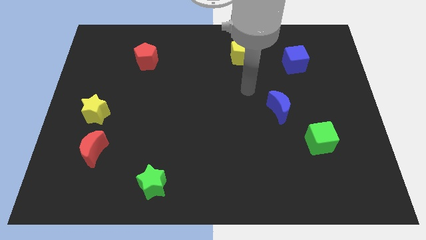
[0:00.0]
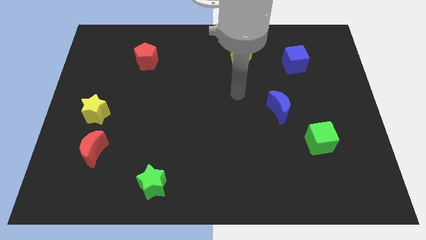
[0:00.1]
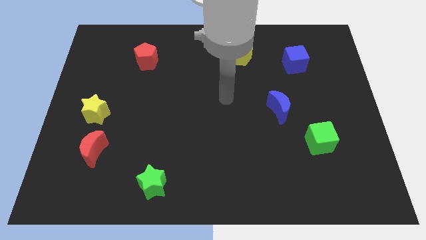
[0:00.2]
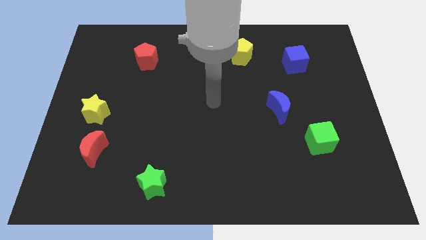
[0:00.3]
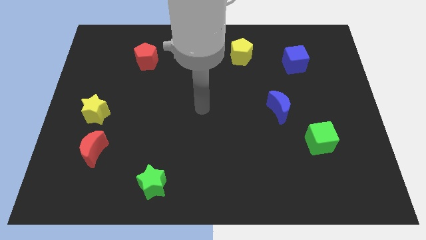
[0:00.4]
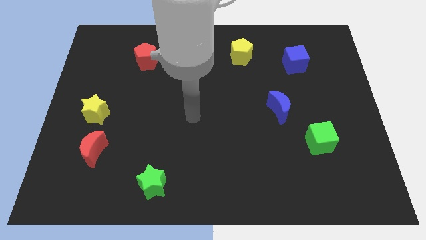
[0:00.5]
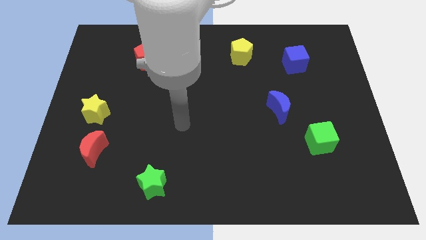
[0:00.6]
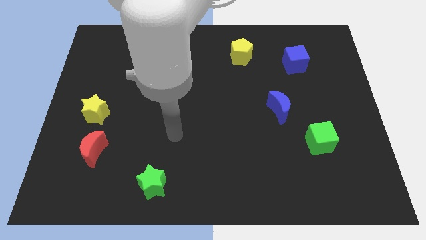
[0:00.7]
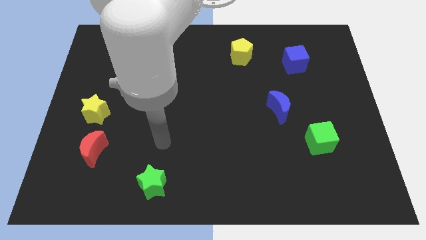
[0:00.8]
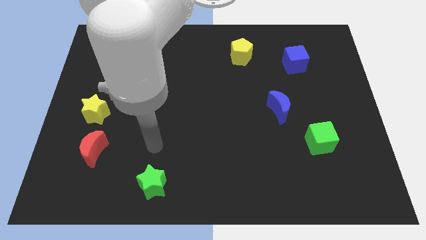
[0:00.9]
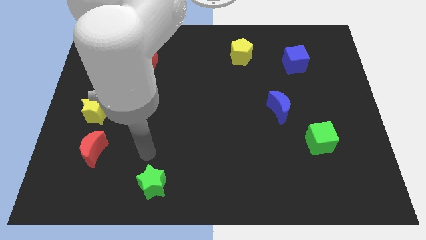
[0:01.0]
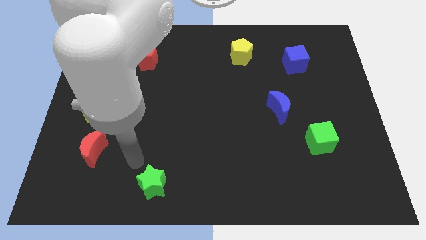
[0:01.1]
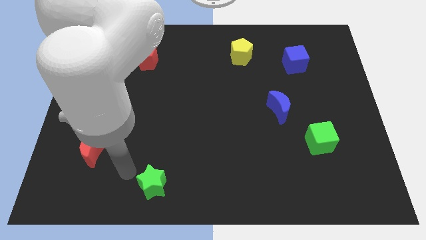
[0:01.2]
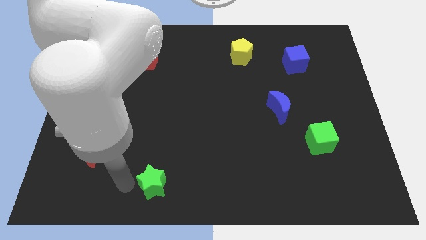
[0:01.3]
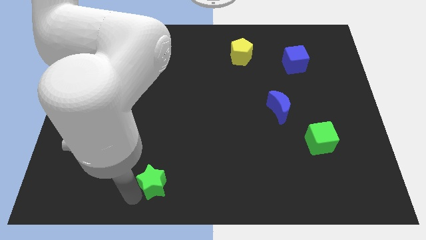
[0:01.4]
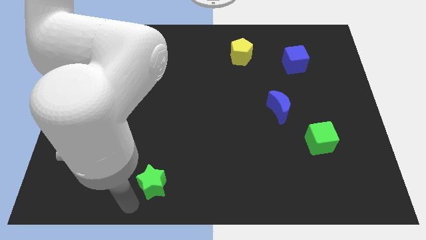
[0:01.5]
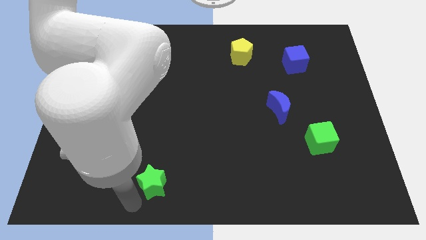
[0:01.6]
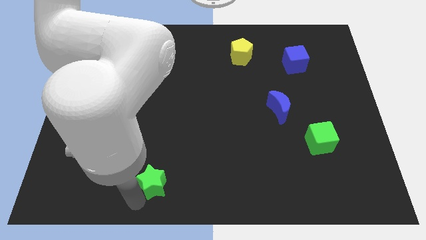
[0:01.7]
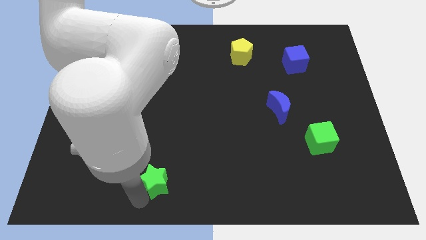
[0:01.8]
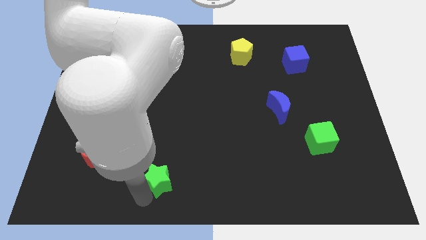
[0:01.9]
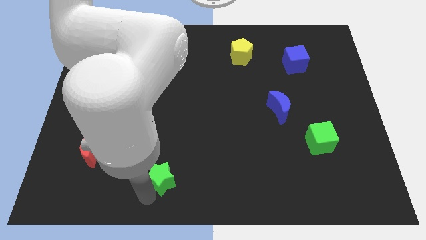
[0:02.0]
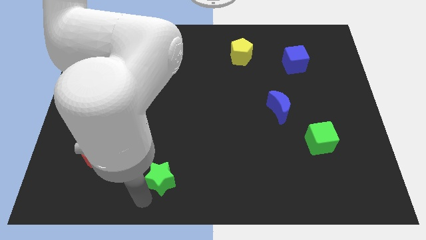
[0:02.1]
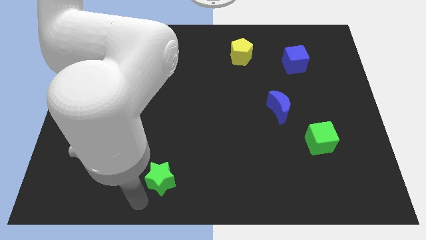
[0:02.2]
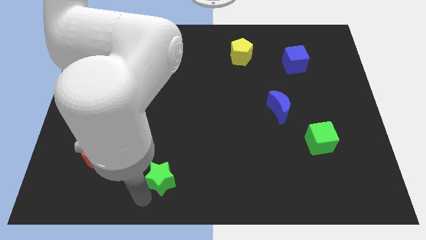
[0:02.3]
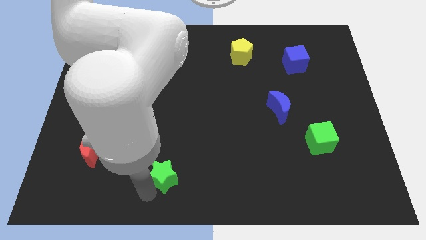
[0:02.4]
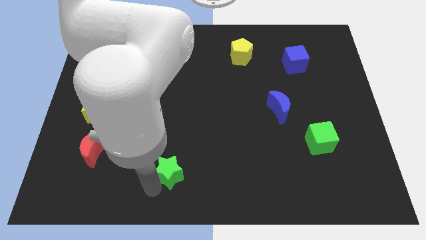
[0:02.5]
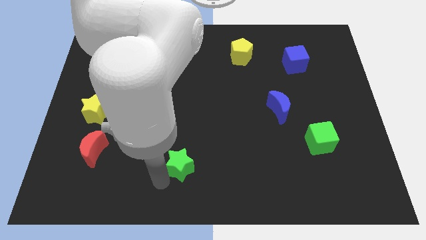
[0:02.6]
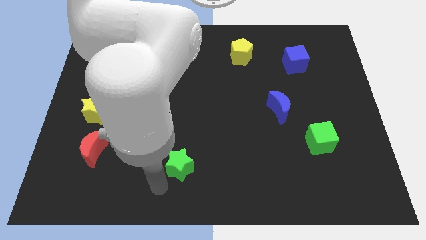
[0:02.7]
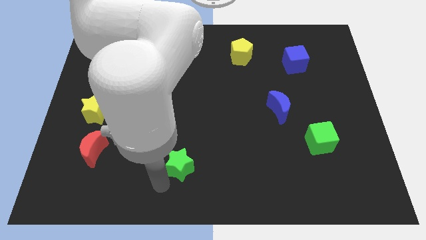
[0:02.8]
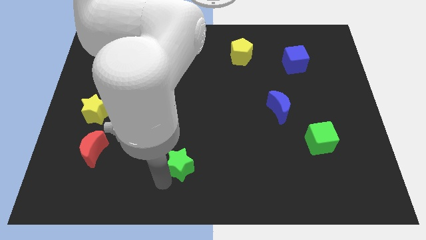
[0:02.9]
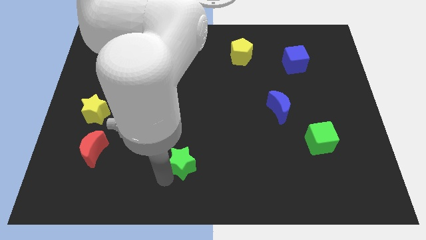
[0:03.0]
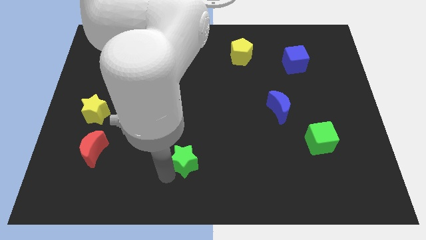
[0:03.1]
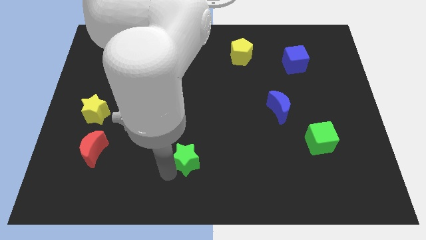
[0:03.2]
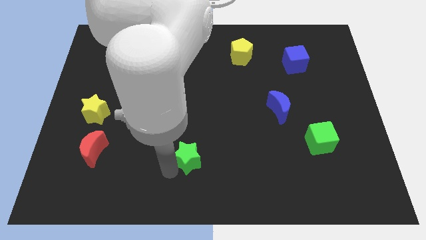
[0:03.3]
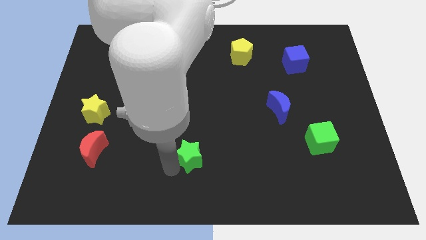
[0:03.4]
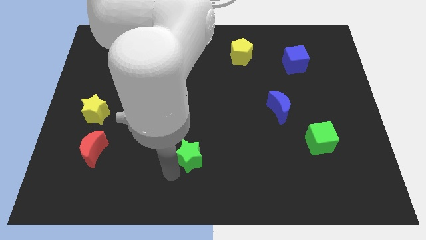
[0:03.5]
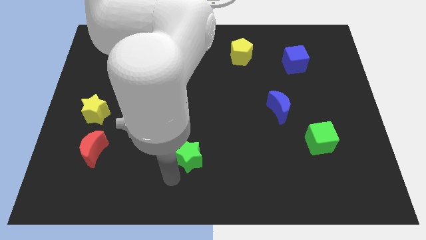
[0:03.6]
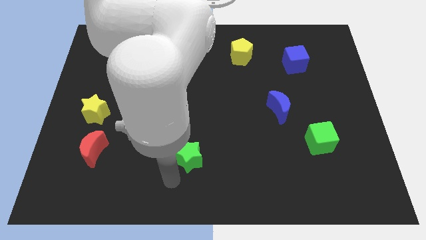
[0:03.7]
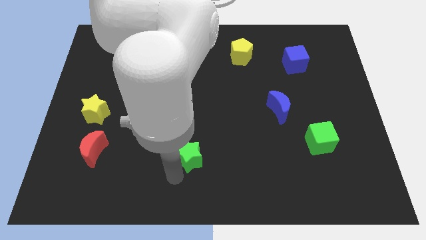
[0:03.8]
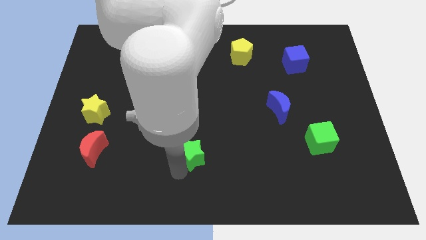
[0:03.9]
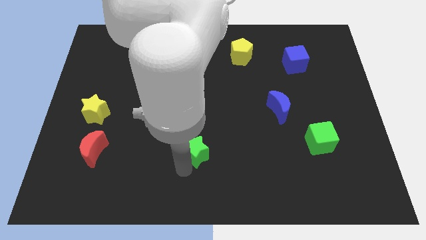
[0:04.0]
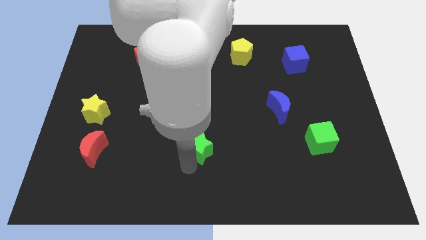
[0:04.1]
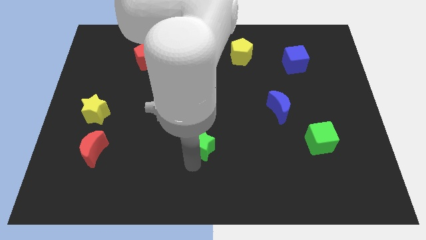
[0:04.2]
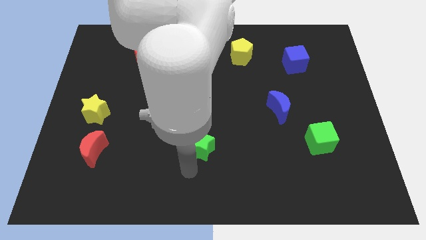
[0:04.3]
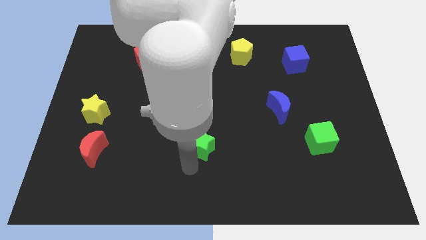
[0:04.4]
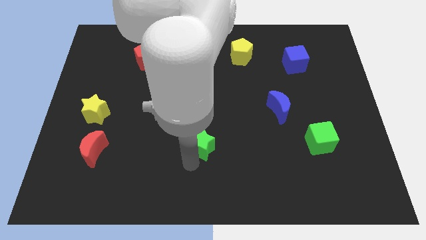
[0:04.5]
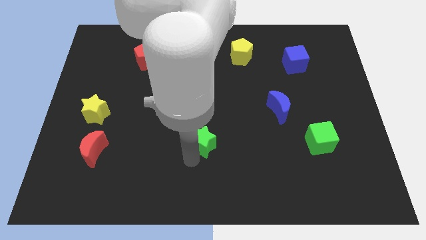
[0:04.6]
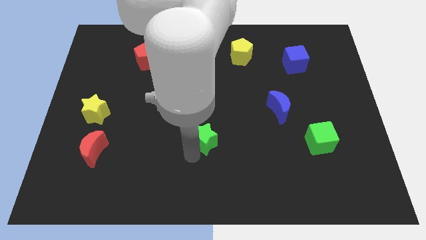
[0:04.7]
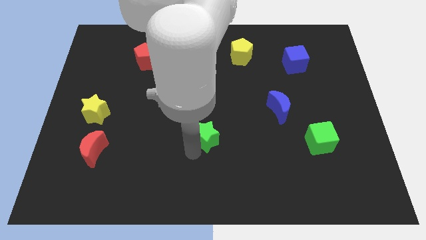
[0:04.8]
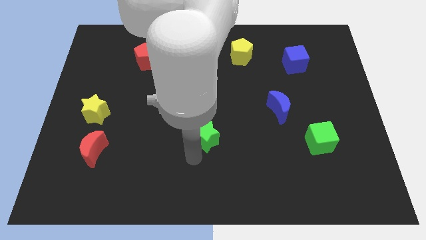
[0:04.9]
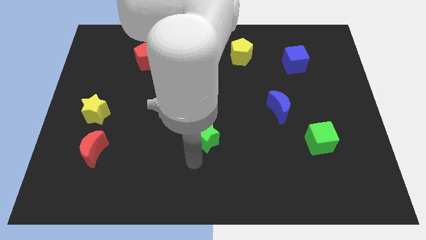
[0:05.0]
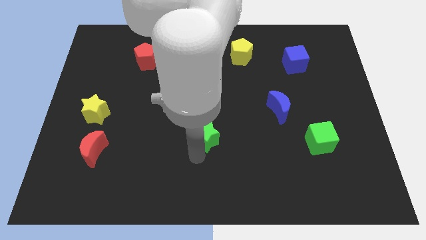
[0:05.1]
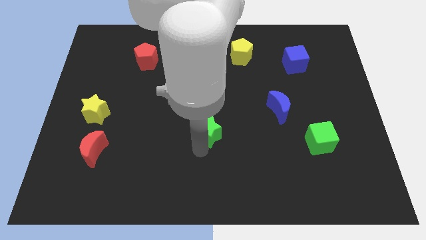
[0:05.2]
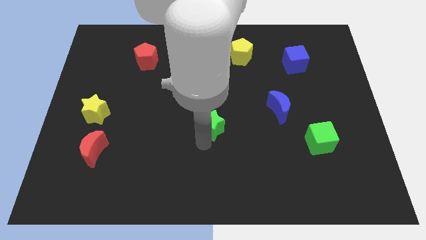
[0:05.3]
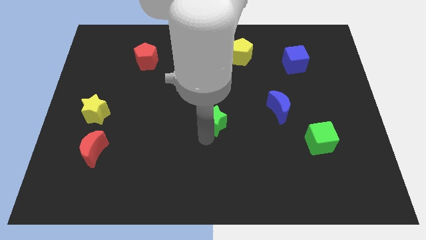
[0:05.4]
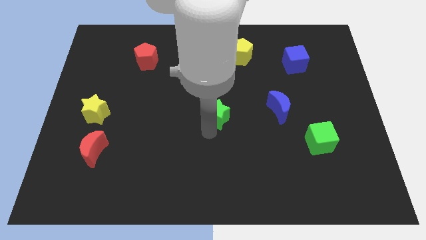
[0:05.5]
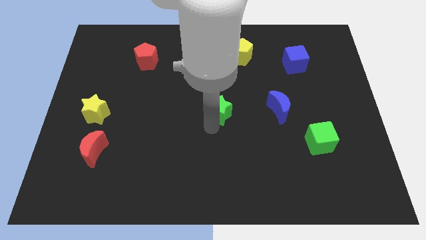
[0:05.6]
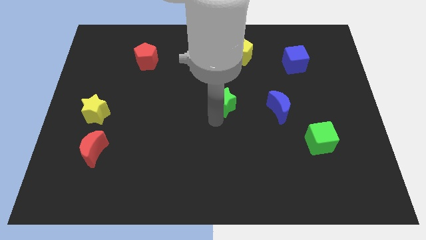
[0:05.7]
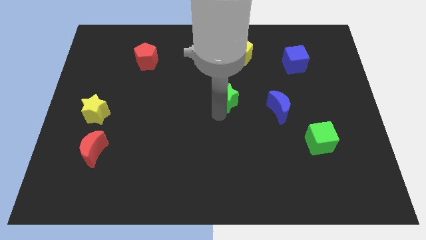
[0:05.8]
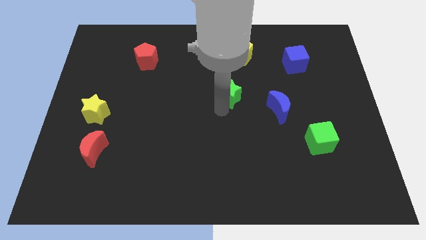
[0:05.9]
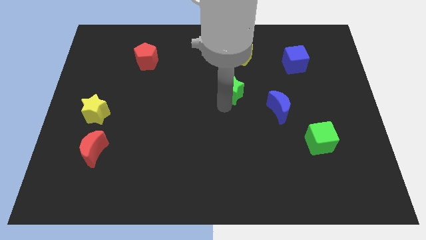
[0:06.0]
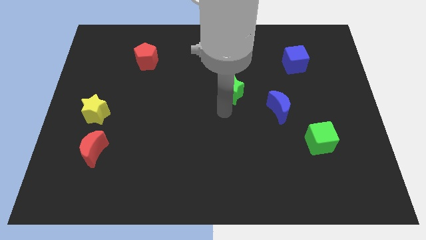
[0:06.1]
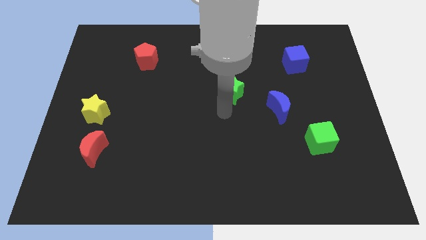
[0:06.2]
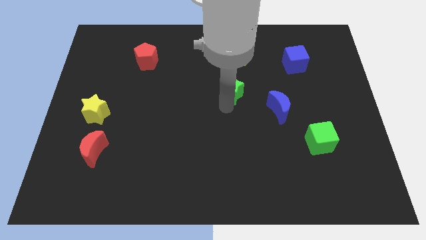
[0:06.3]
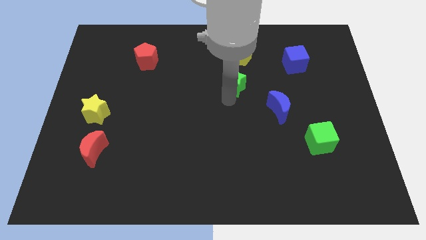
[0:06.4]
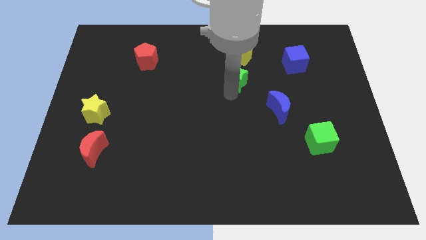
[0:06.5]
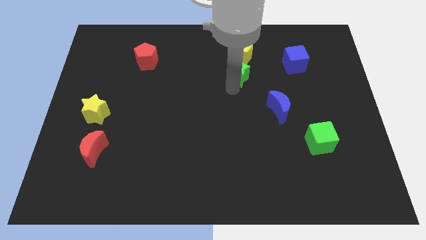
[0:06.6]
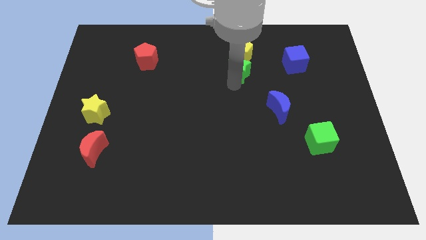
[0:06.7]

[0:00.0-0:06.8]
push the green star towards the yellow pentagon

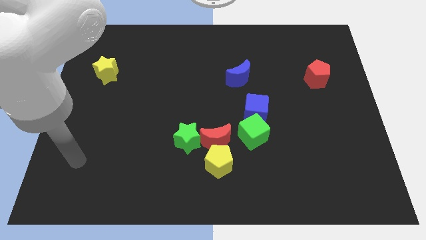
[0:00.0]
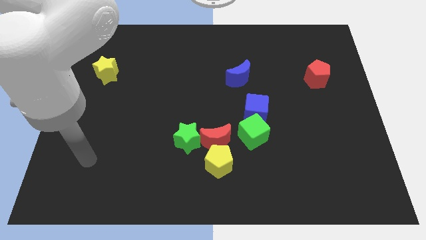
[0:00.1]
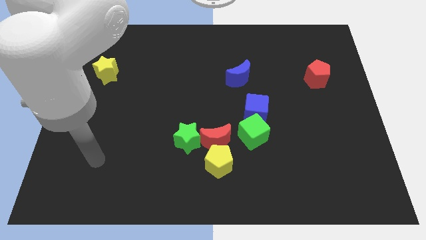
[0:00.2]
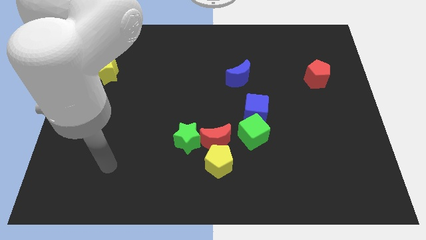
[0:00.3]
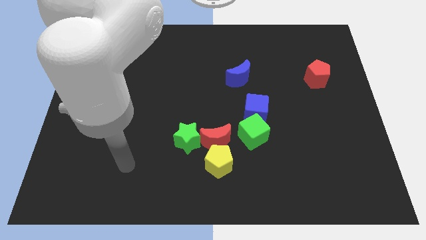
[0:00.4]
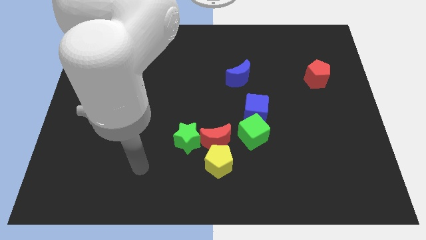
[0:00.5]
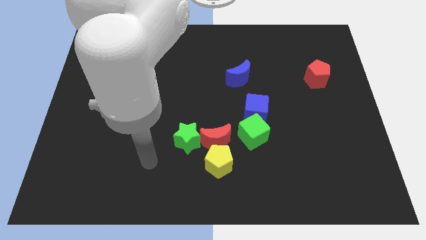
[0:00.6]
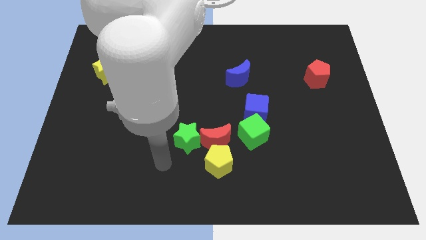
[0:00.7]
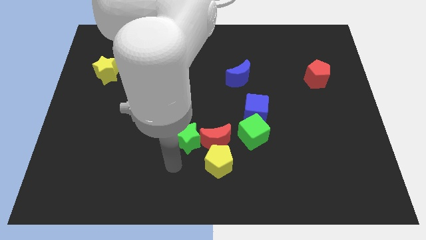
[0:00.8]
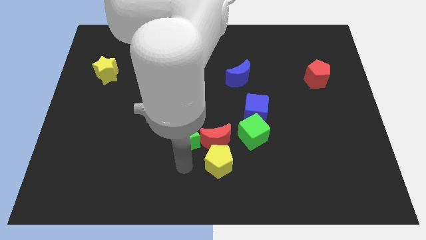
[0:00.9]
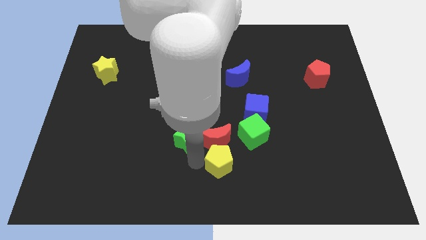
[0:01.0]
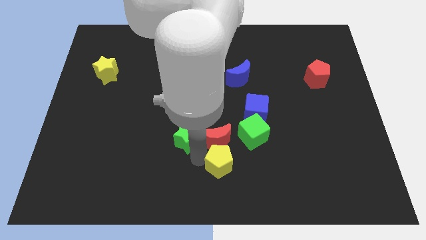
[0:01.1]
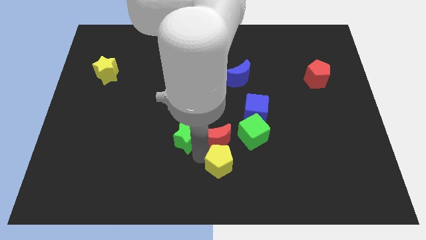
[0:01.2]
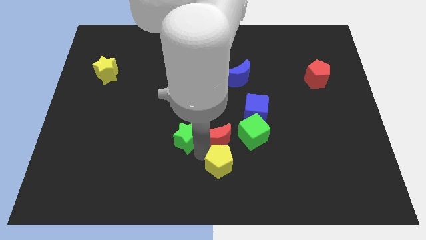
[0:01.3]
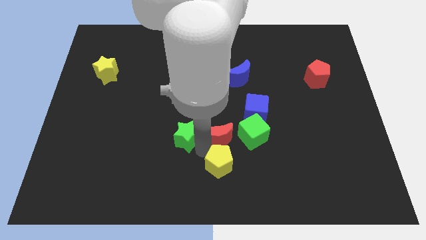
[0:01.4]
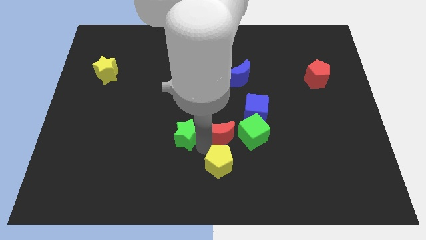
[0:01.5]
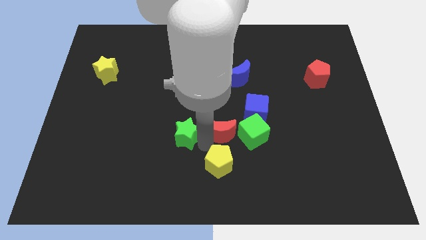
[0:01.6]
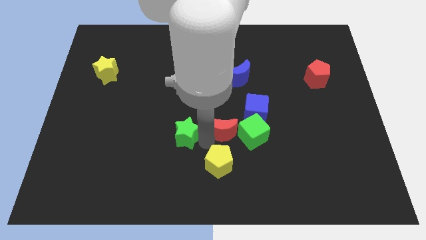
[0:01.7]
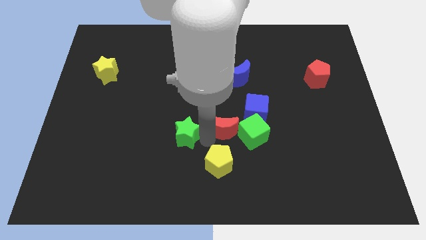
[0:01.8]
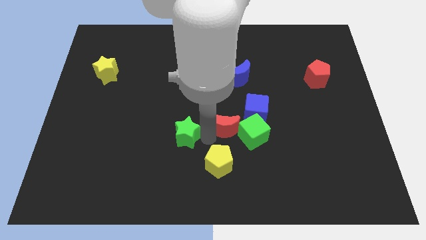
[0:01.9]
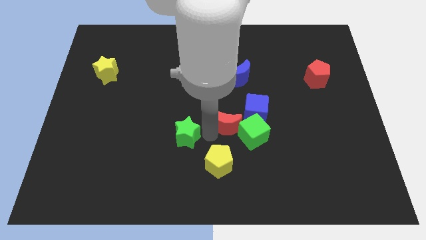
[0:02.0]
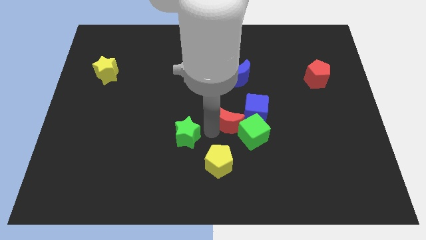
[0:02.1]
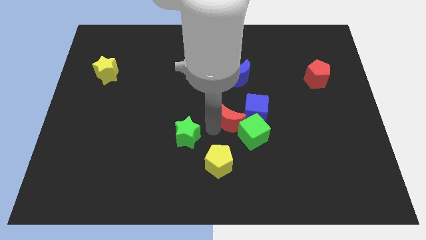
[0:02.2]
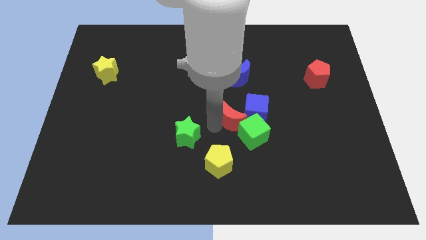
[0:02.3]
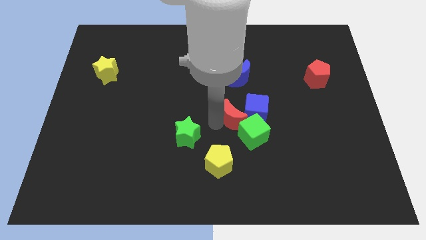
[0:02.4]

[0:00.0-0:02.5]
move the red moon close to the blue cube
